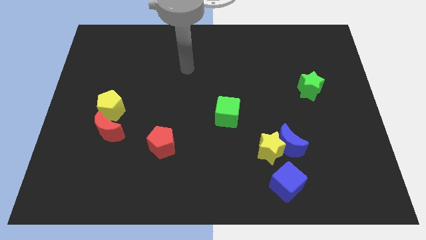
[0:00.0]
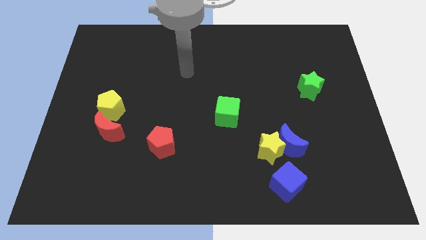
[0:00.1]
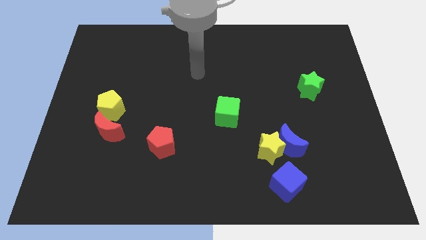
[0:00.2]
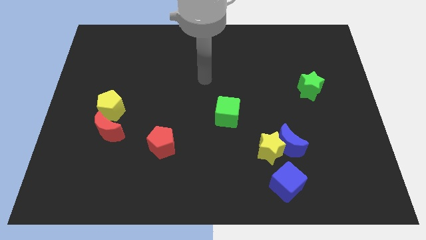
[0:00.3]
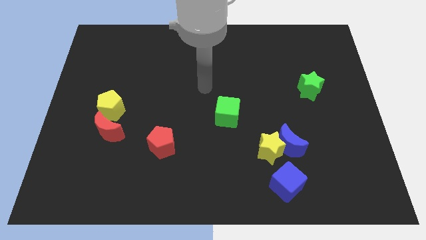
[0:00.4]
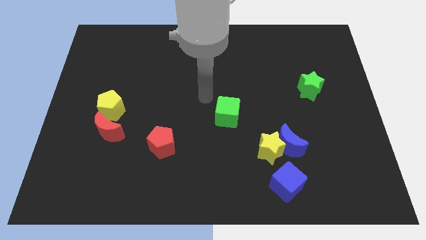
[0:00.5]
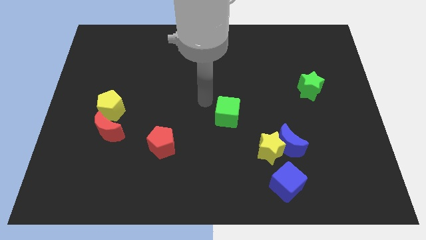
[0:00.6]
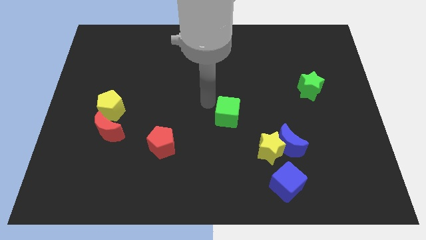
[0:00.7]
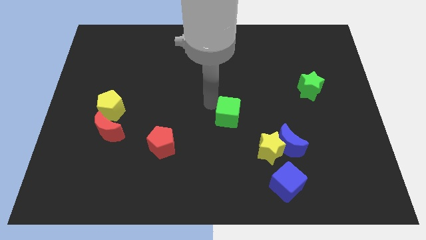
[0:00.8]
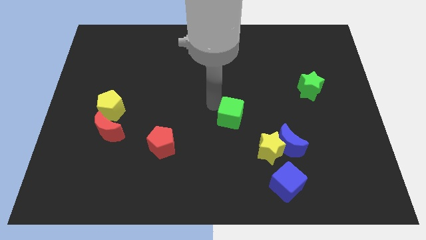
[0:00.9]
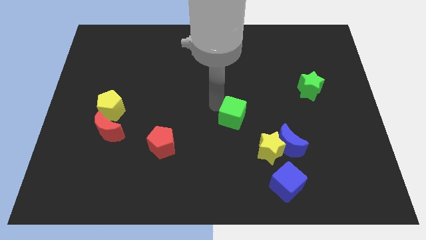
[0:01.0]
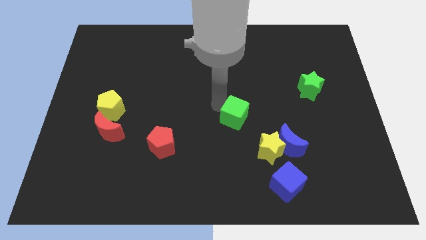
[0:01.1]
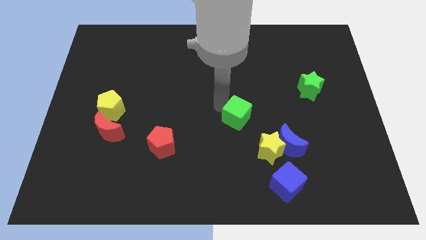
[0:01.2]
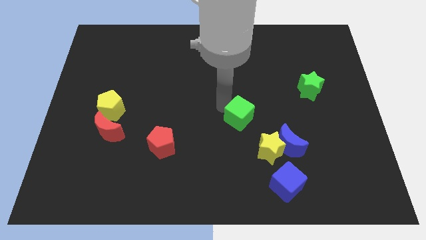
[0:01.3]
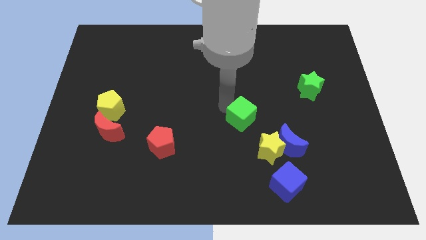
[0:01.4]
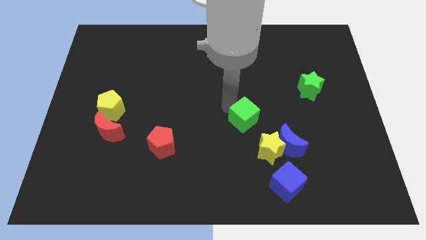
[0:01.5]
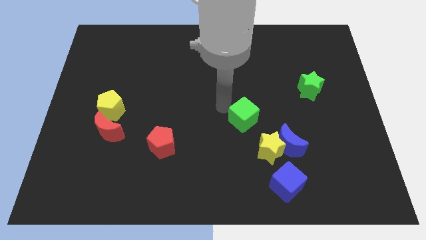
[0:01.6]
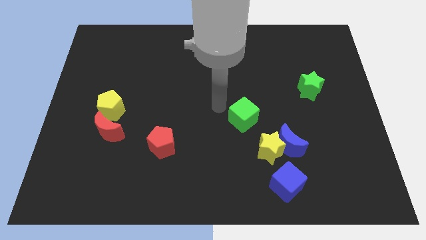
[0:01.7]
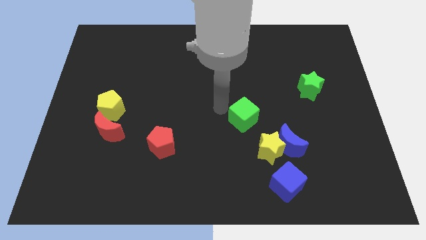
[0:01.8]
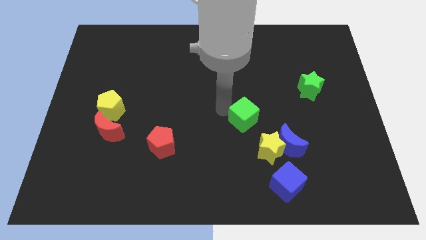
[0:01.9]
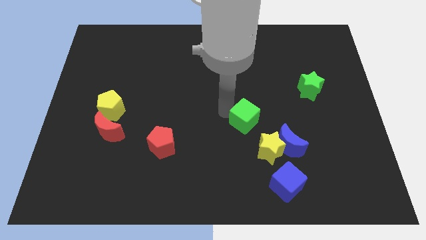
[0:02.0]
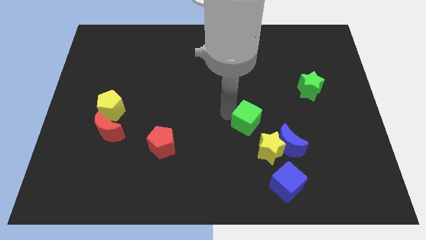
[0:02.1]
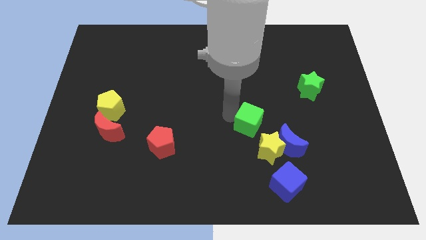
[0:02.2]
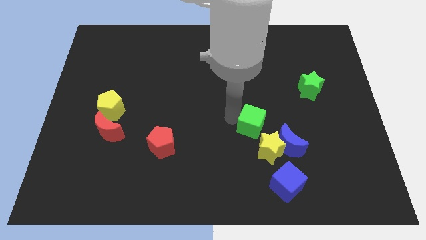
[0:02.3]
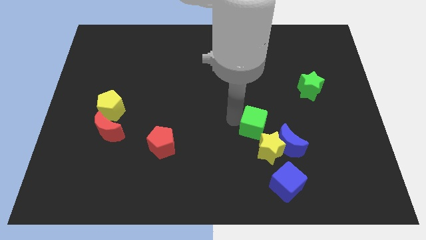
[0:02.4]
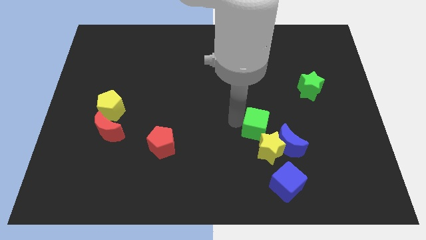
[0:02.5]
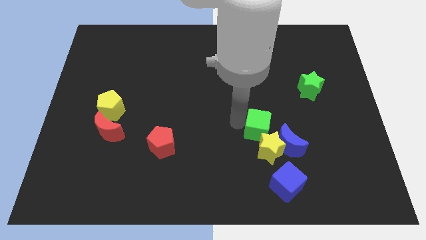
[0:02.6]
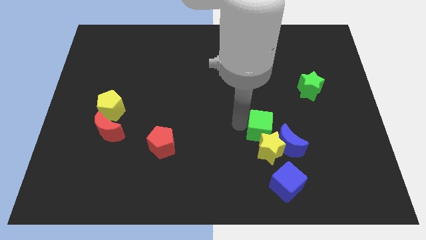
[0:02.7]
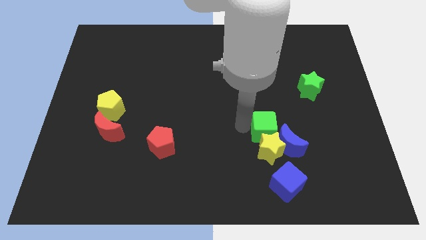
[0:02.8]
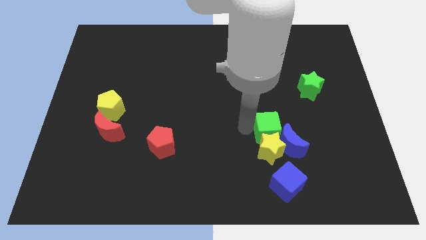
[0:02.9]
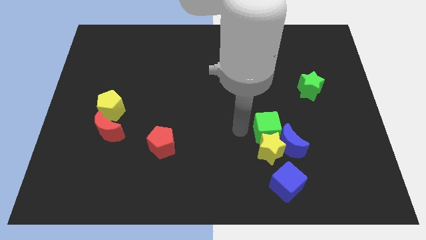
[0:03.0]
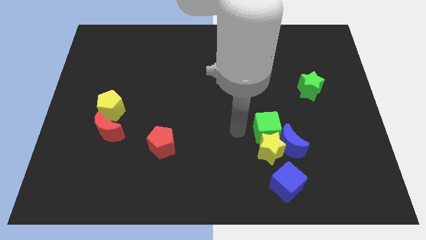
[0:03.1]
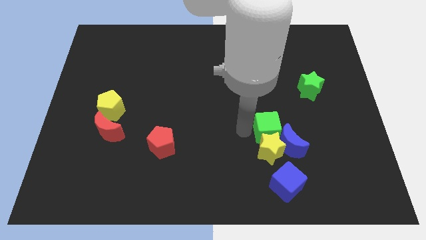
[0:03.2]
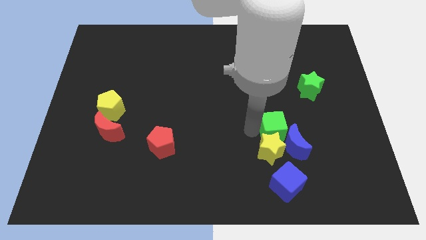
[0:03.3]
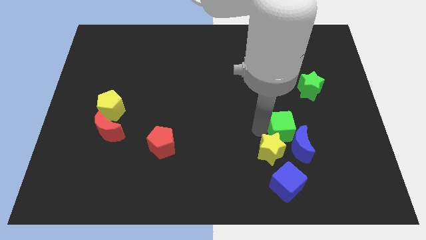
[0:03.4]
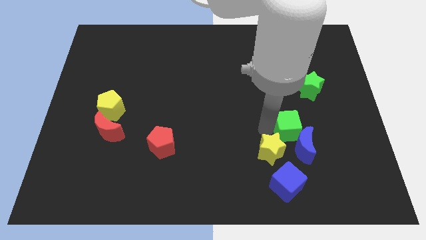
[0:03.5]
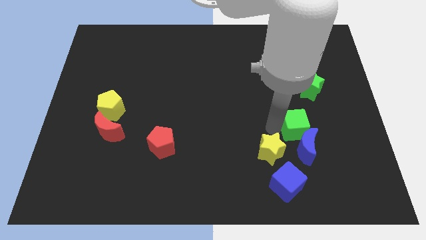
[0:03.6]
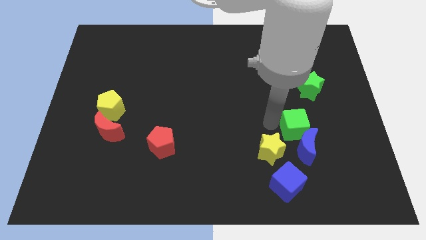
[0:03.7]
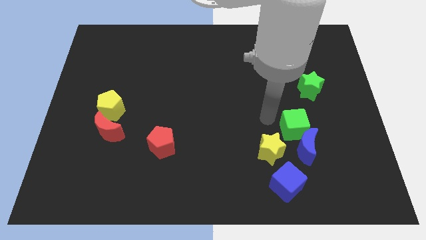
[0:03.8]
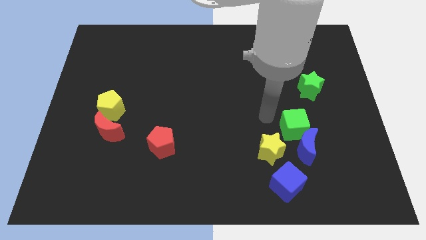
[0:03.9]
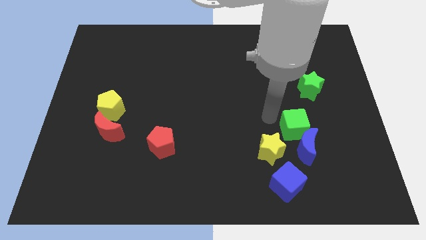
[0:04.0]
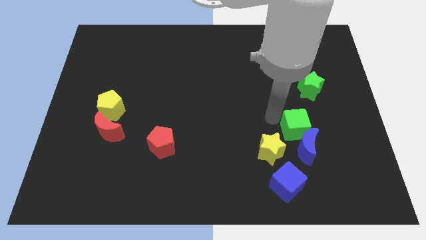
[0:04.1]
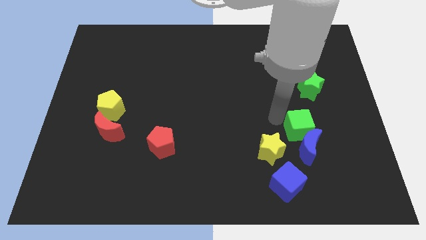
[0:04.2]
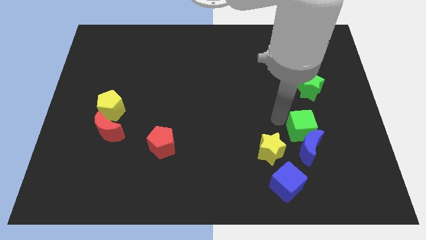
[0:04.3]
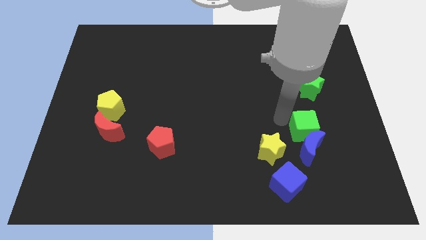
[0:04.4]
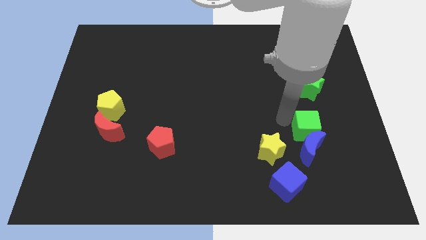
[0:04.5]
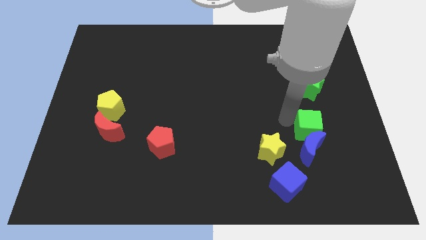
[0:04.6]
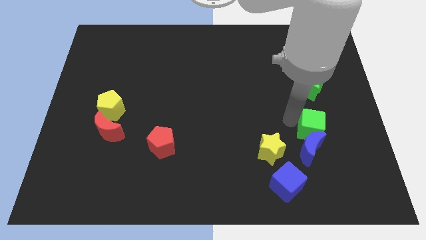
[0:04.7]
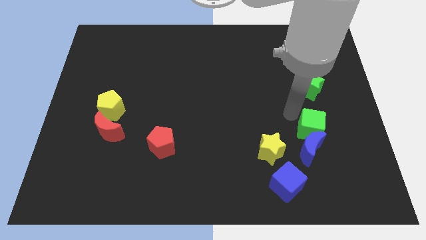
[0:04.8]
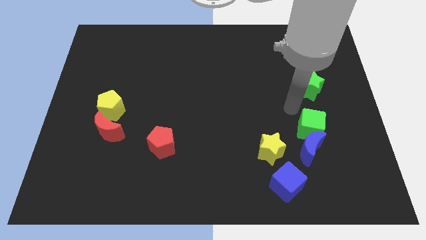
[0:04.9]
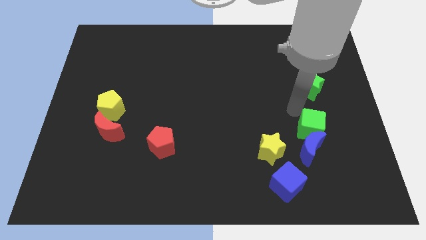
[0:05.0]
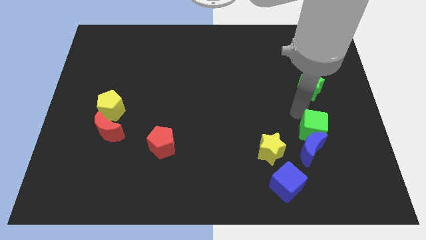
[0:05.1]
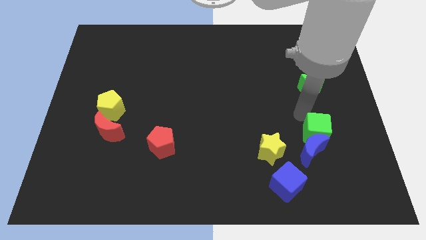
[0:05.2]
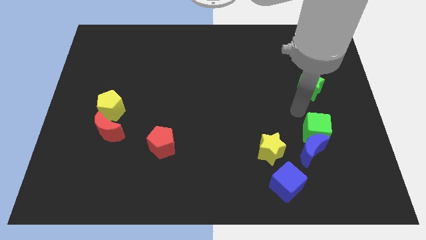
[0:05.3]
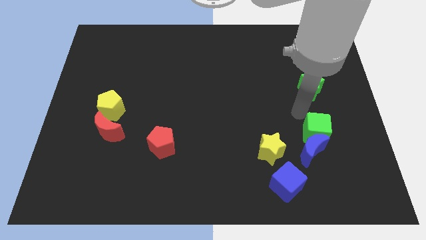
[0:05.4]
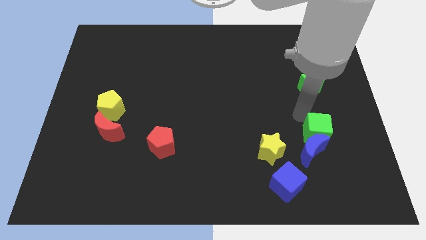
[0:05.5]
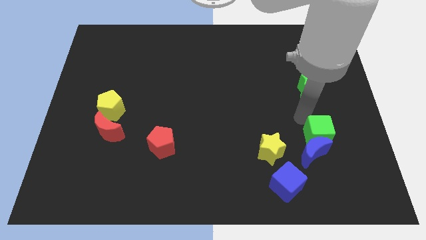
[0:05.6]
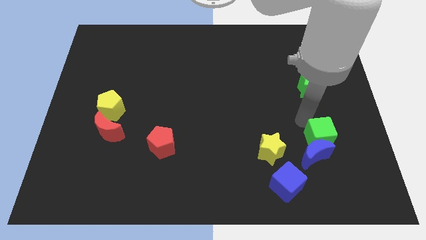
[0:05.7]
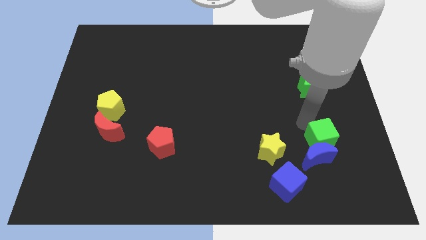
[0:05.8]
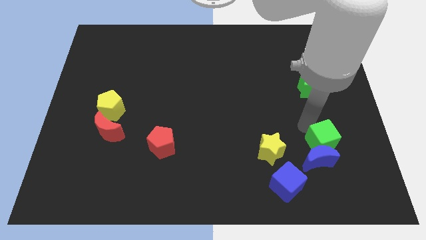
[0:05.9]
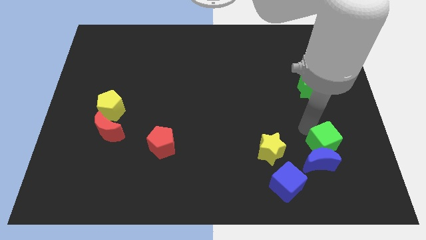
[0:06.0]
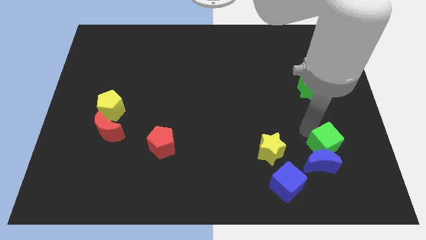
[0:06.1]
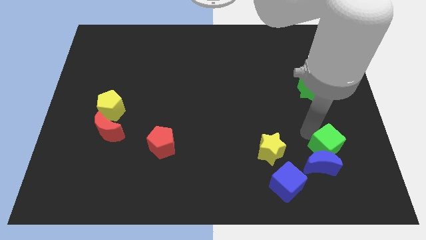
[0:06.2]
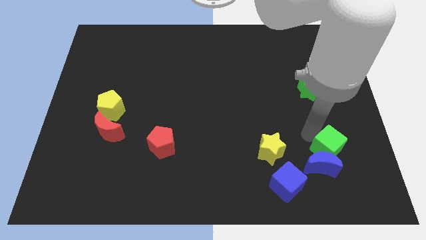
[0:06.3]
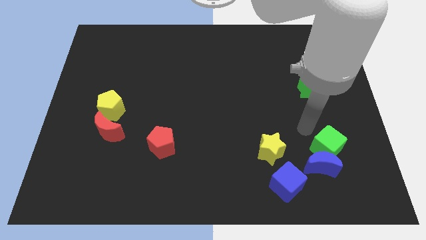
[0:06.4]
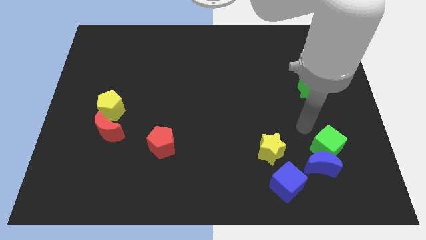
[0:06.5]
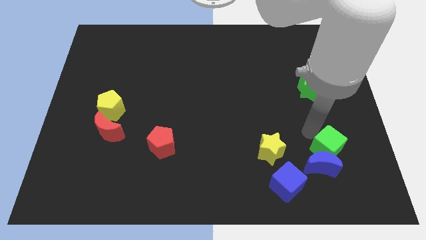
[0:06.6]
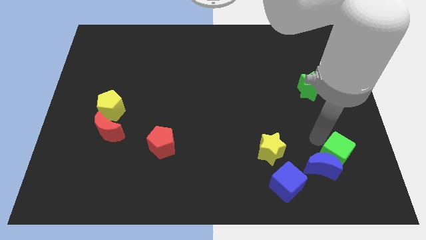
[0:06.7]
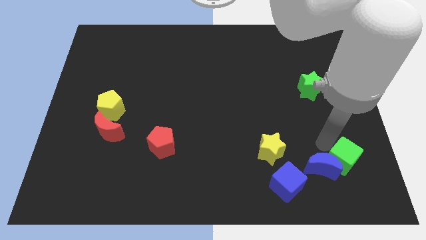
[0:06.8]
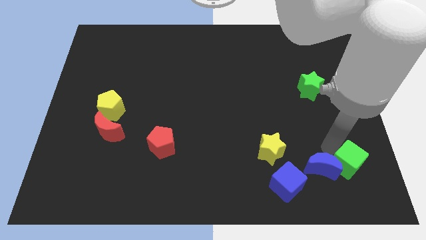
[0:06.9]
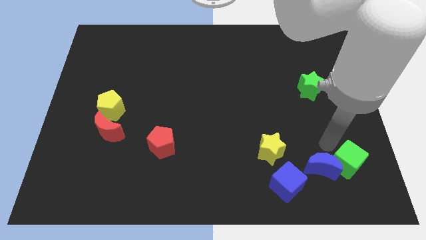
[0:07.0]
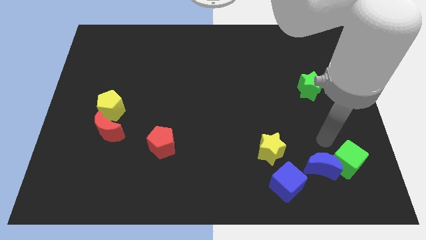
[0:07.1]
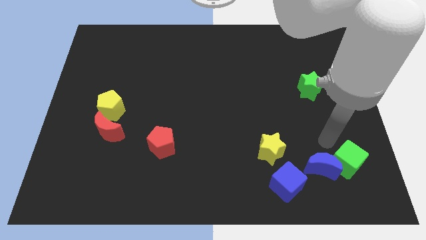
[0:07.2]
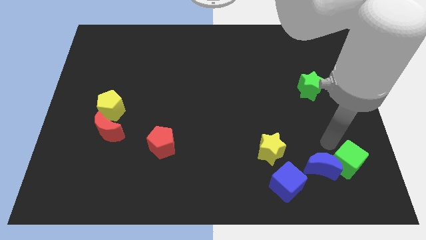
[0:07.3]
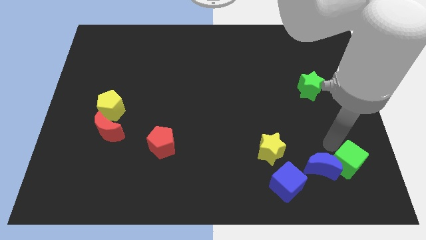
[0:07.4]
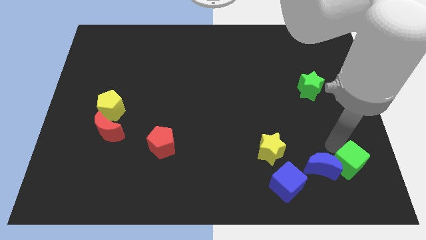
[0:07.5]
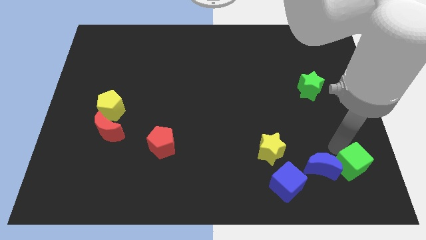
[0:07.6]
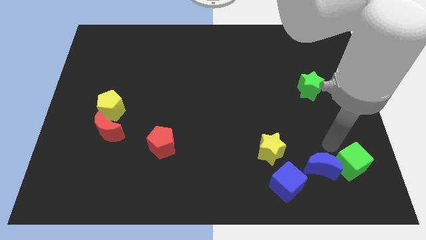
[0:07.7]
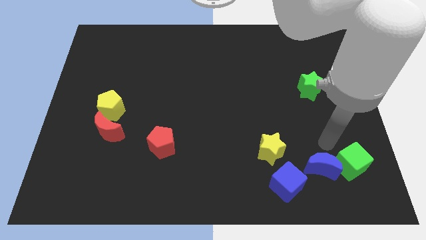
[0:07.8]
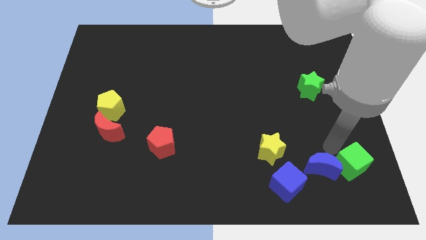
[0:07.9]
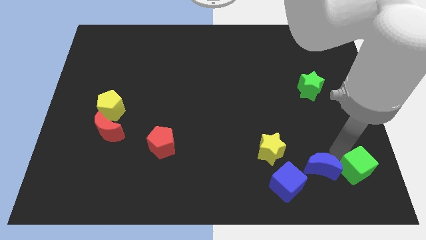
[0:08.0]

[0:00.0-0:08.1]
push the green cube to the bottom right of the board
